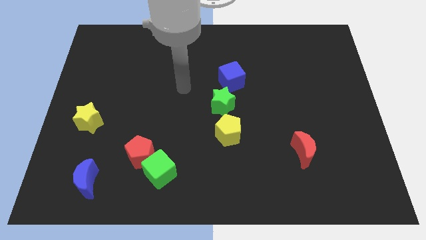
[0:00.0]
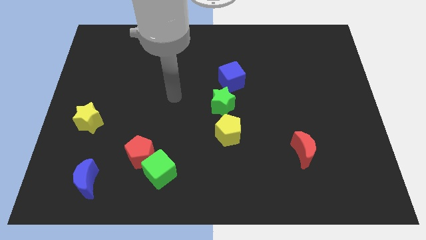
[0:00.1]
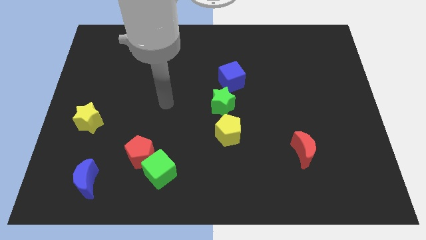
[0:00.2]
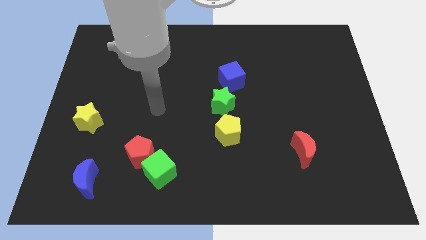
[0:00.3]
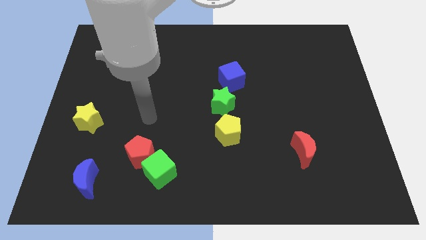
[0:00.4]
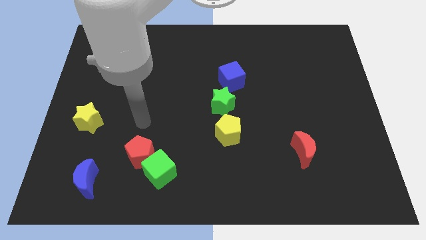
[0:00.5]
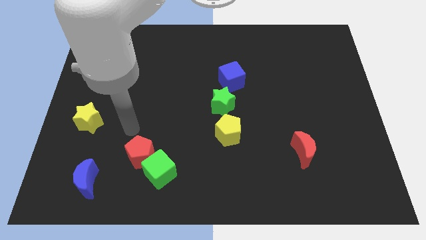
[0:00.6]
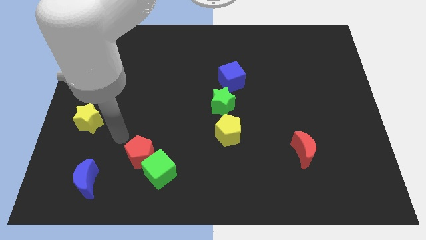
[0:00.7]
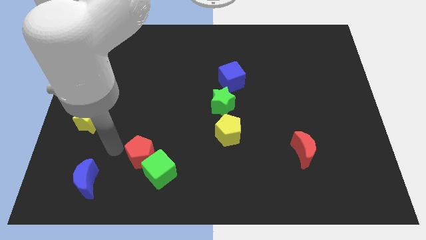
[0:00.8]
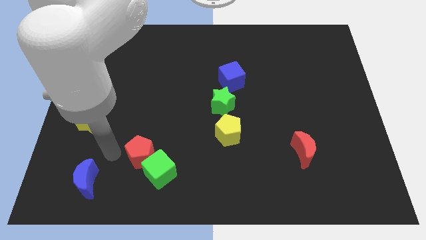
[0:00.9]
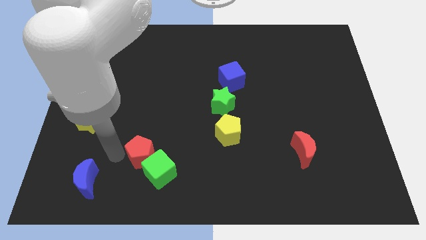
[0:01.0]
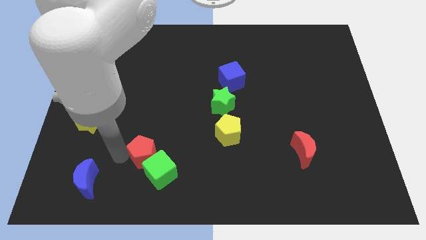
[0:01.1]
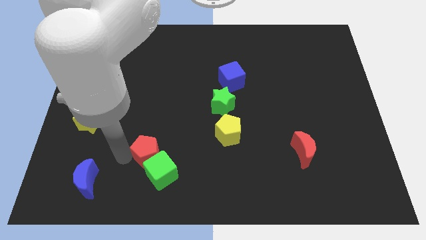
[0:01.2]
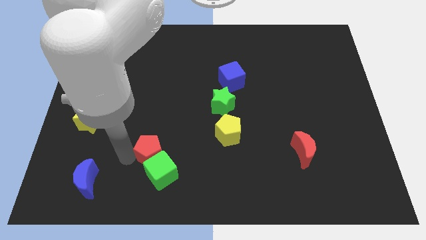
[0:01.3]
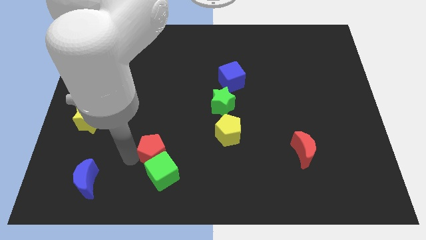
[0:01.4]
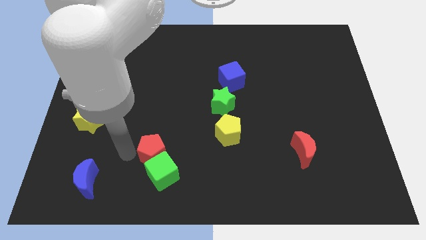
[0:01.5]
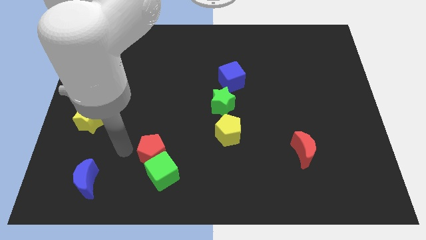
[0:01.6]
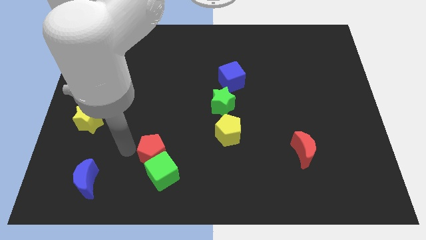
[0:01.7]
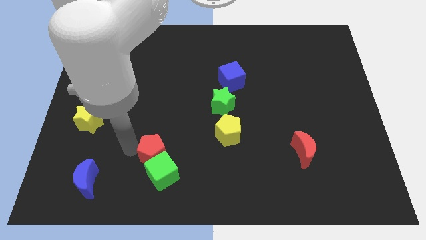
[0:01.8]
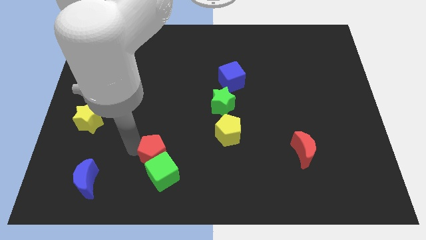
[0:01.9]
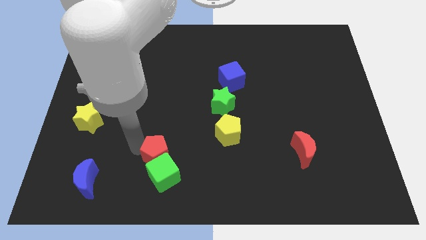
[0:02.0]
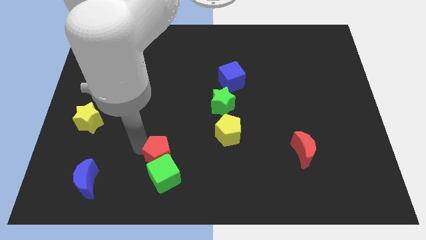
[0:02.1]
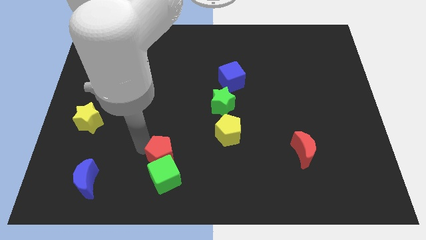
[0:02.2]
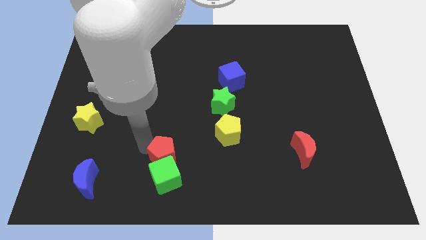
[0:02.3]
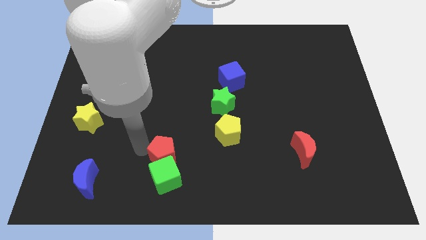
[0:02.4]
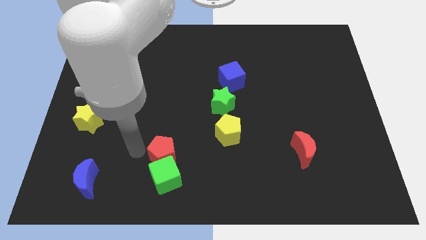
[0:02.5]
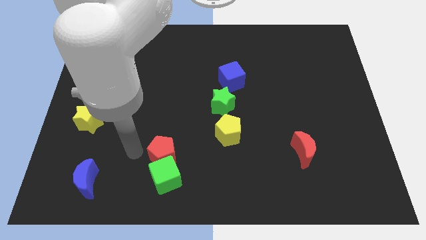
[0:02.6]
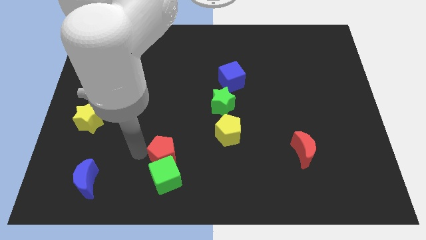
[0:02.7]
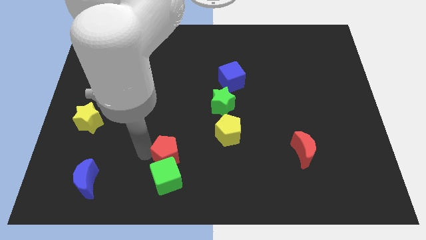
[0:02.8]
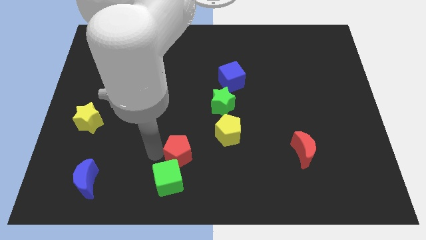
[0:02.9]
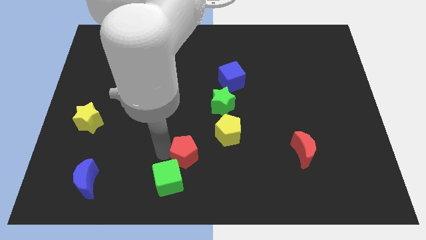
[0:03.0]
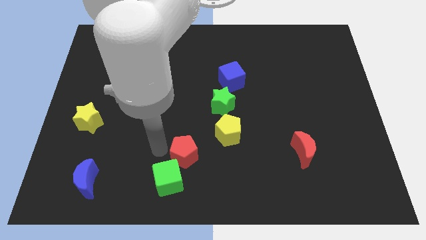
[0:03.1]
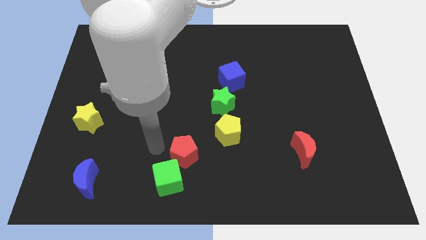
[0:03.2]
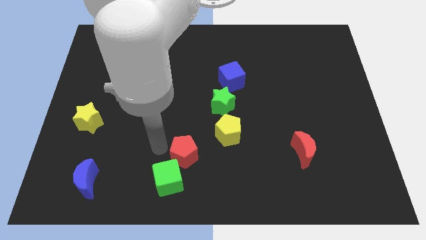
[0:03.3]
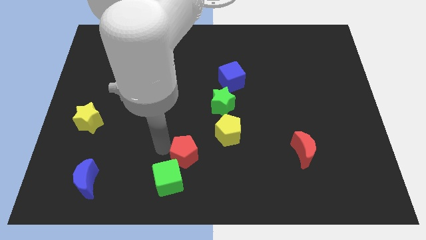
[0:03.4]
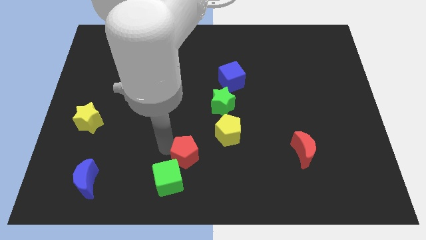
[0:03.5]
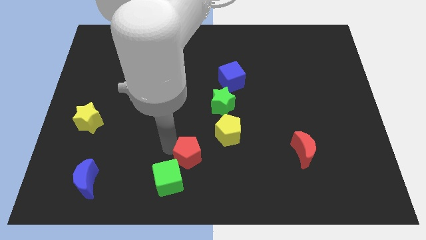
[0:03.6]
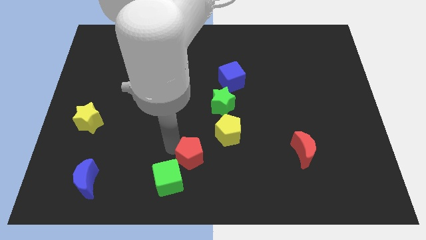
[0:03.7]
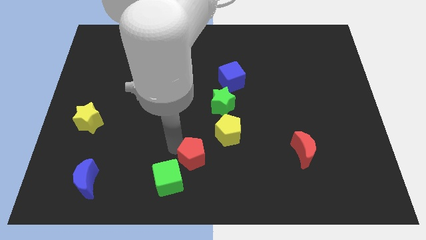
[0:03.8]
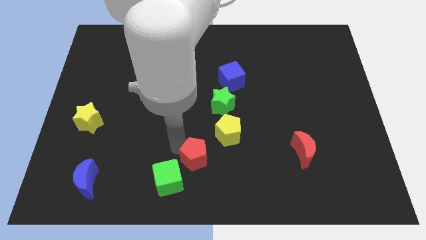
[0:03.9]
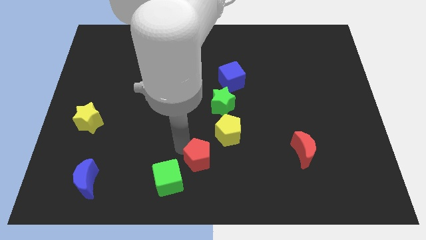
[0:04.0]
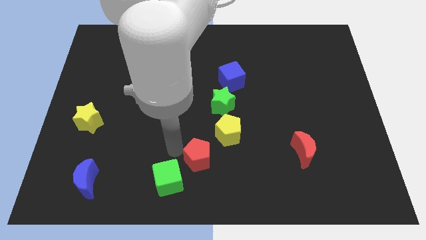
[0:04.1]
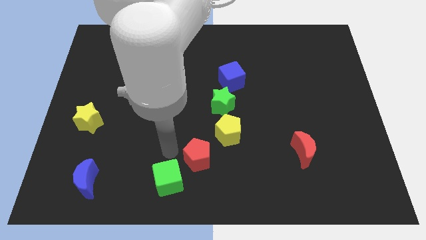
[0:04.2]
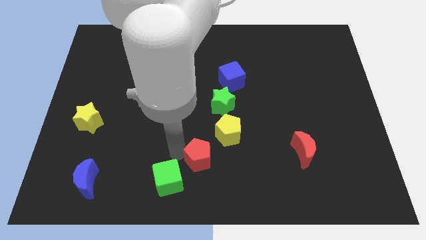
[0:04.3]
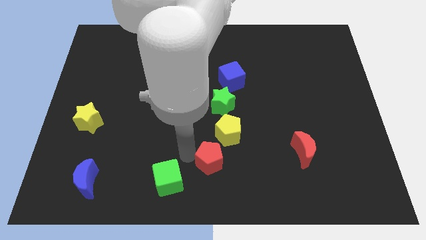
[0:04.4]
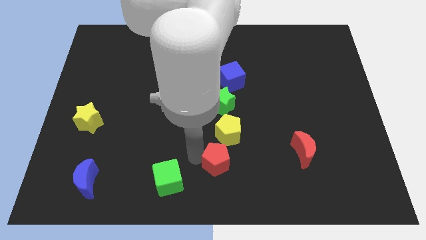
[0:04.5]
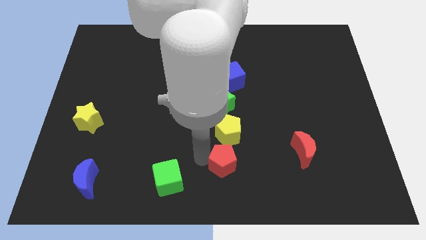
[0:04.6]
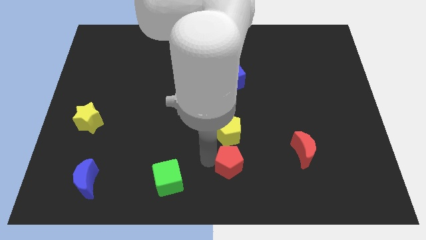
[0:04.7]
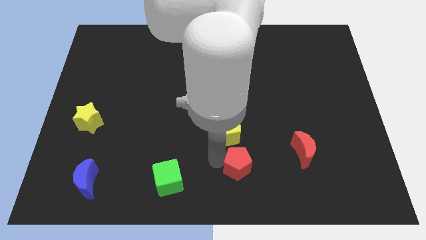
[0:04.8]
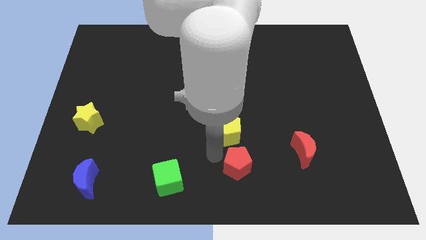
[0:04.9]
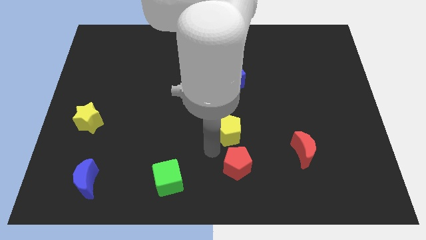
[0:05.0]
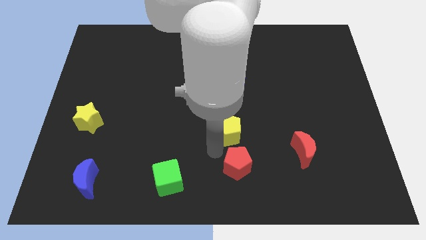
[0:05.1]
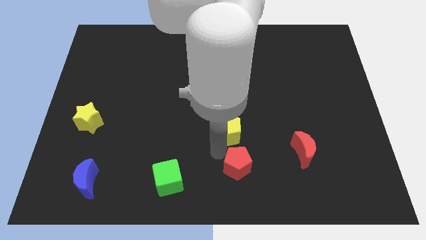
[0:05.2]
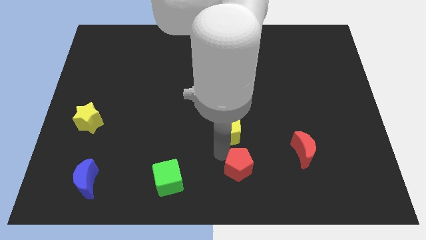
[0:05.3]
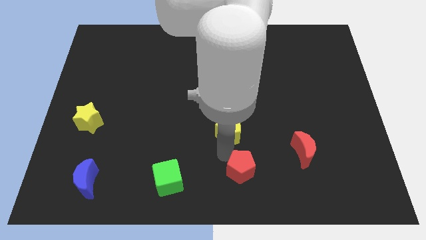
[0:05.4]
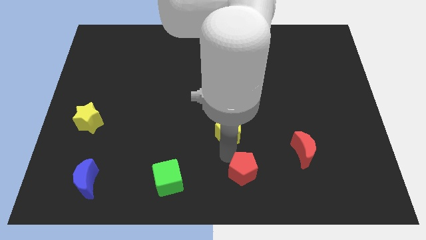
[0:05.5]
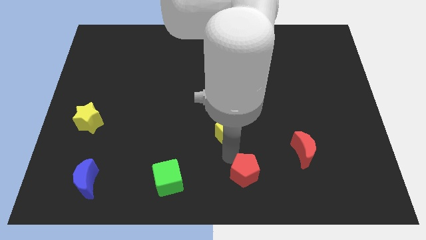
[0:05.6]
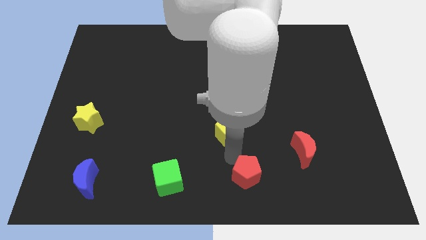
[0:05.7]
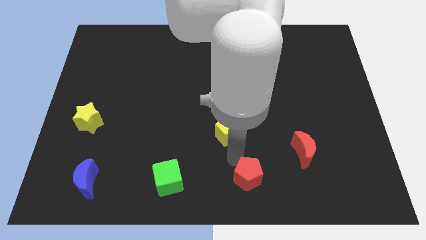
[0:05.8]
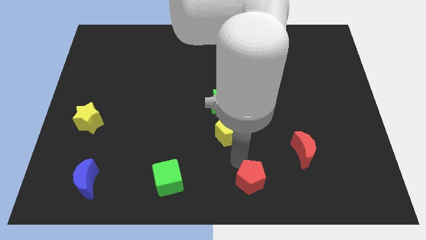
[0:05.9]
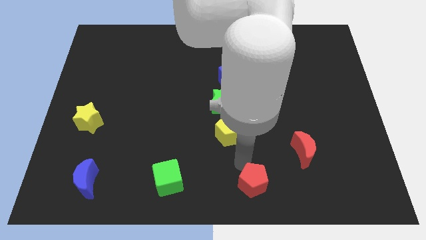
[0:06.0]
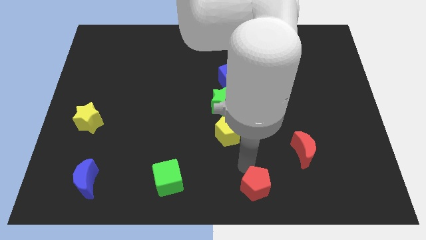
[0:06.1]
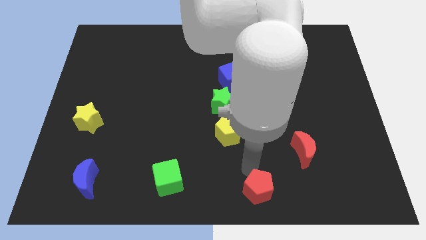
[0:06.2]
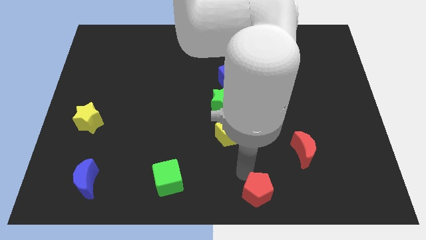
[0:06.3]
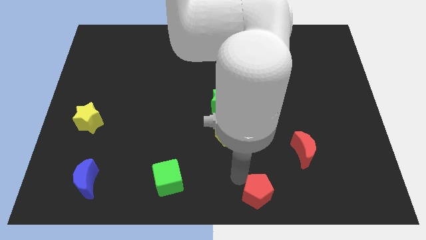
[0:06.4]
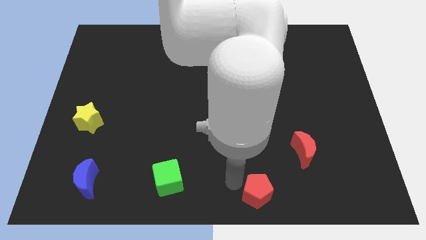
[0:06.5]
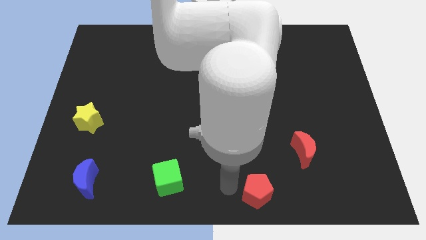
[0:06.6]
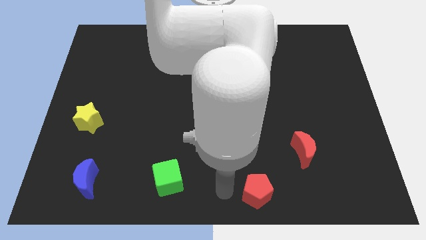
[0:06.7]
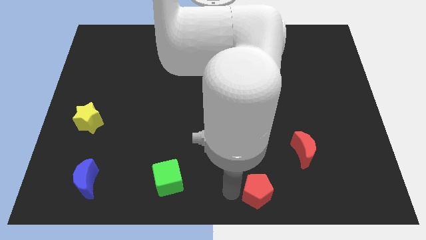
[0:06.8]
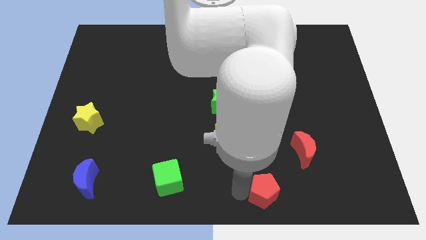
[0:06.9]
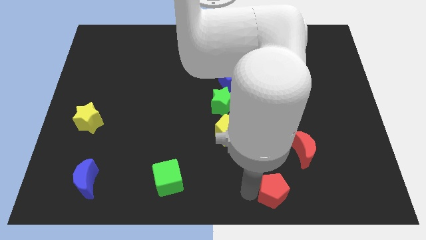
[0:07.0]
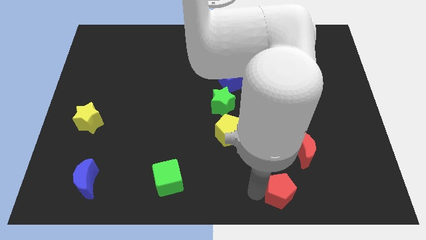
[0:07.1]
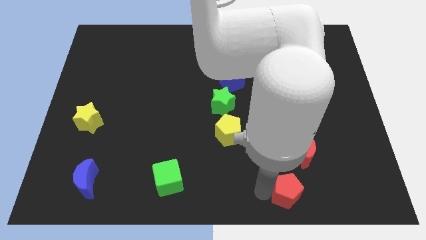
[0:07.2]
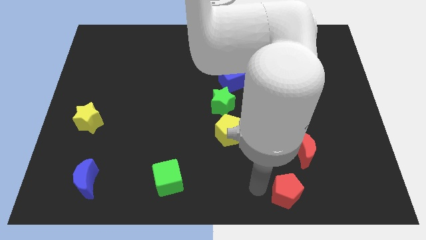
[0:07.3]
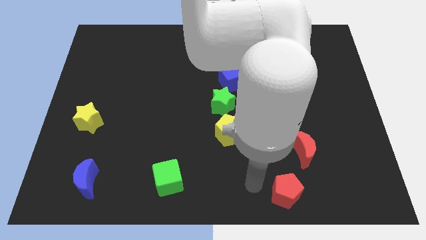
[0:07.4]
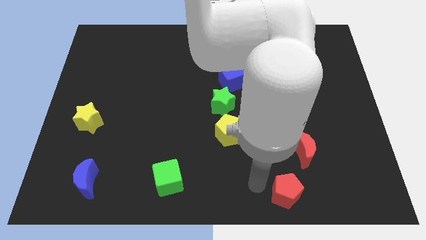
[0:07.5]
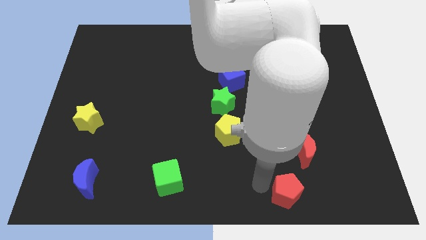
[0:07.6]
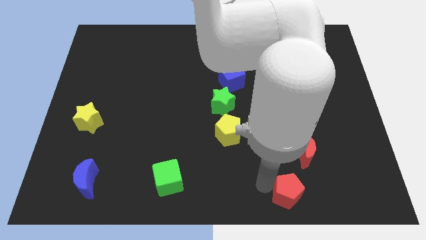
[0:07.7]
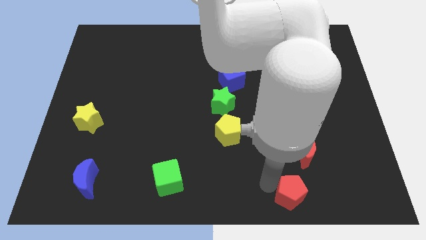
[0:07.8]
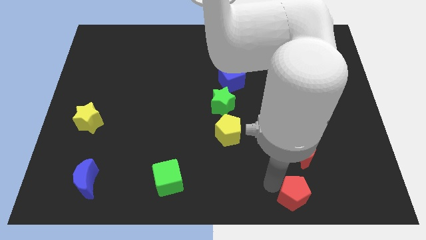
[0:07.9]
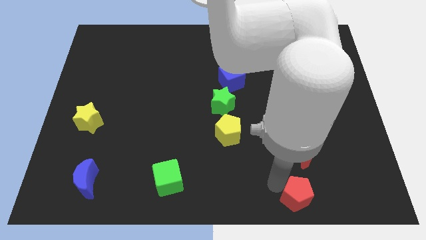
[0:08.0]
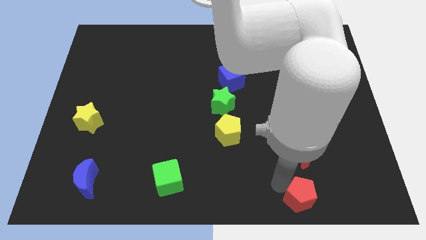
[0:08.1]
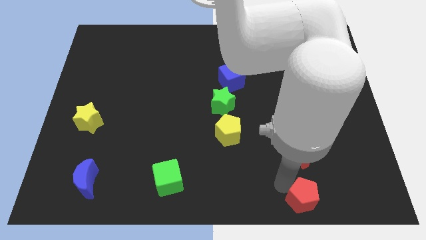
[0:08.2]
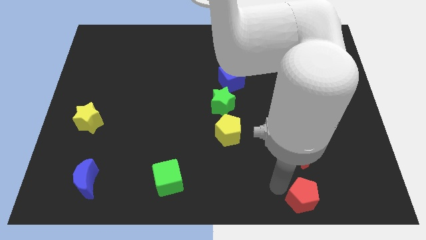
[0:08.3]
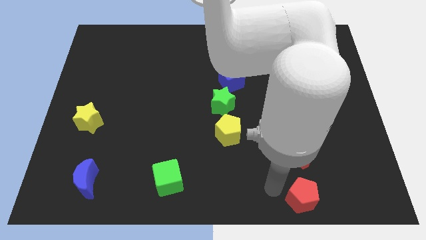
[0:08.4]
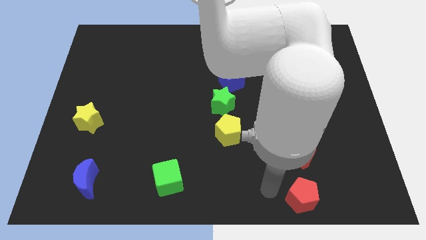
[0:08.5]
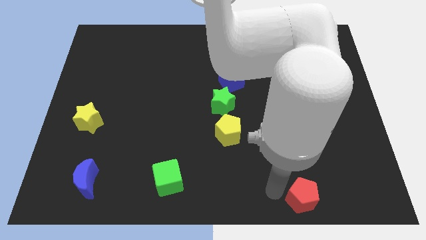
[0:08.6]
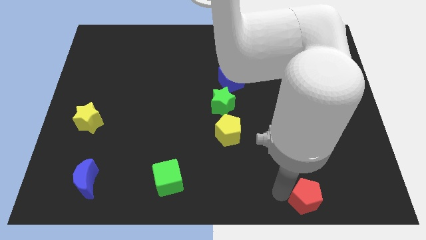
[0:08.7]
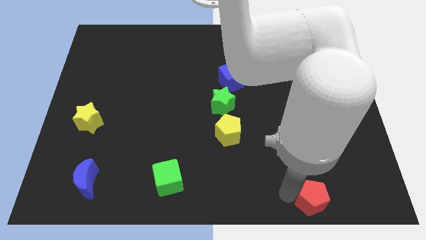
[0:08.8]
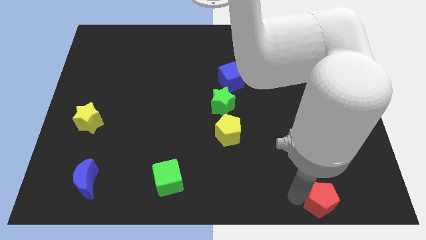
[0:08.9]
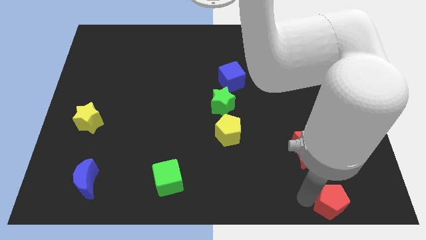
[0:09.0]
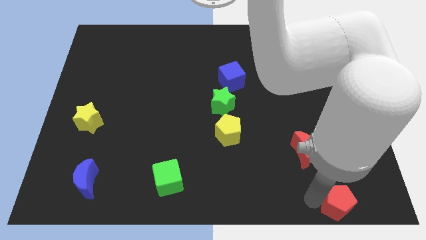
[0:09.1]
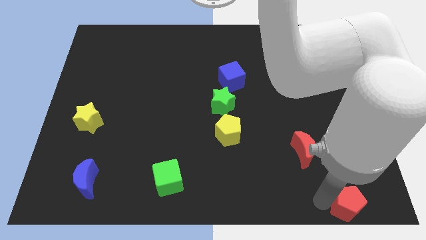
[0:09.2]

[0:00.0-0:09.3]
move the red pentagon to the lower right corner
